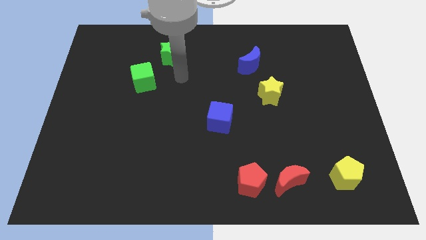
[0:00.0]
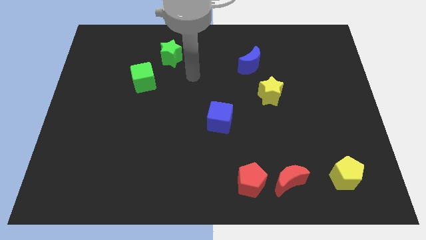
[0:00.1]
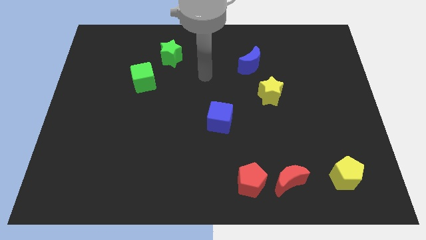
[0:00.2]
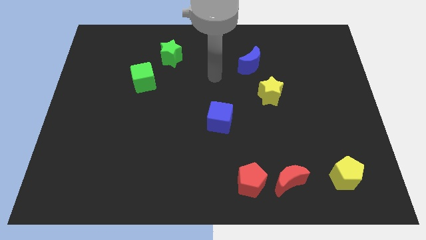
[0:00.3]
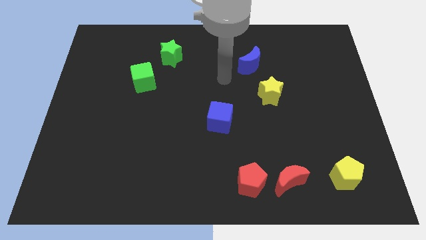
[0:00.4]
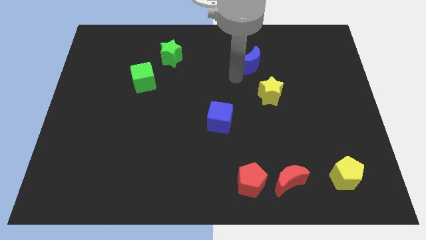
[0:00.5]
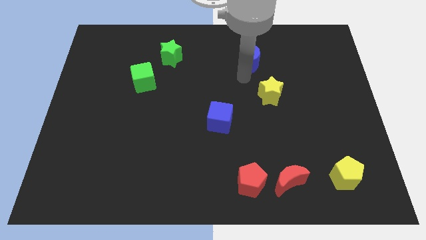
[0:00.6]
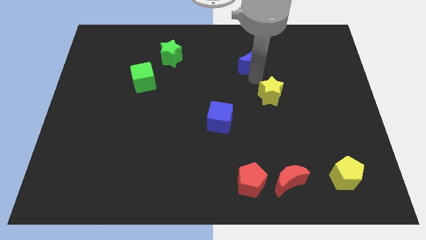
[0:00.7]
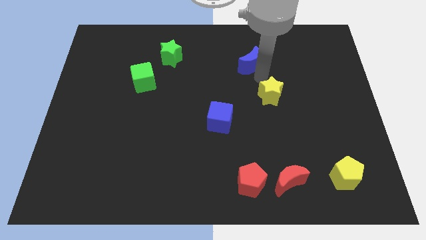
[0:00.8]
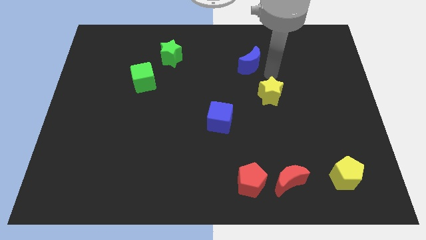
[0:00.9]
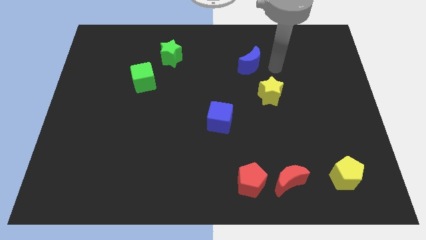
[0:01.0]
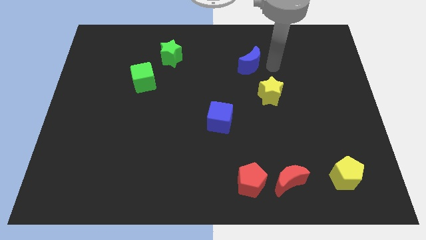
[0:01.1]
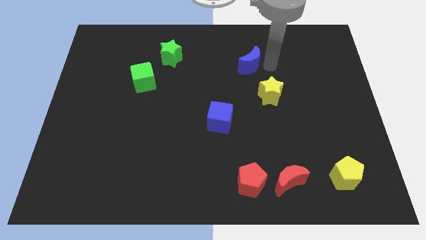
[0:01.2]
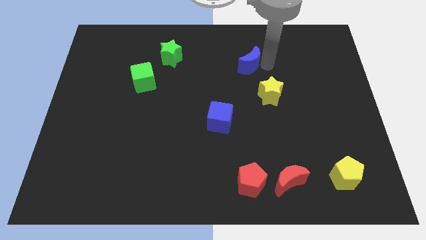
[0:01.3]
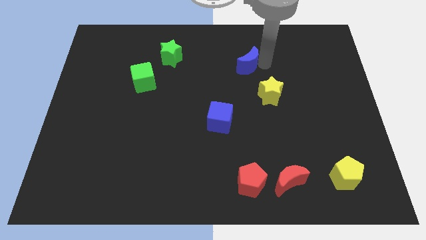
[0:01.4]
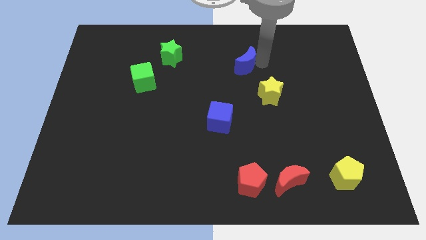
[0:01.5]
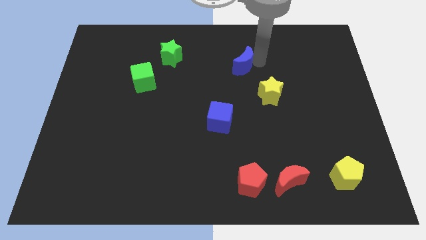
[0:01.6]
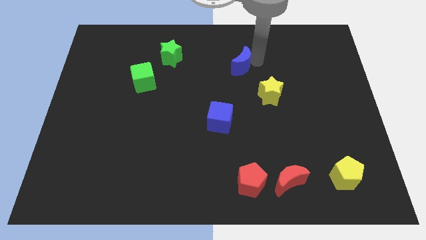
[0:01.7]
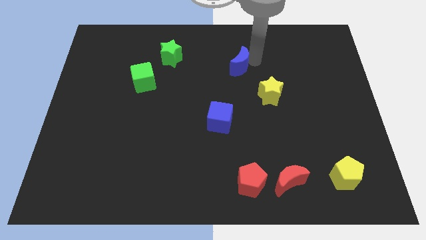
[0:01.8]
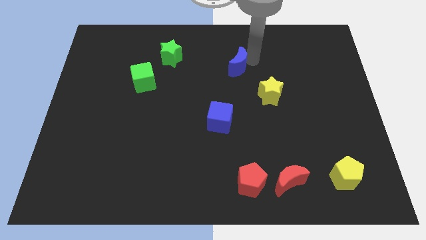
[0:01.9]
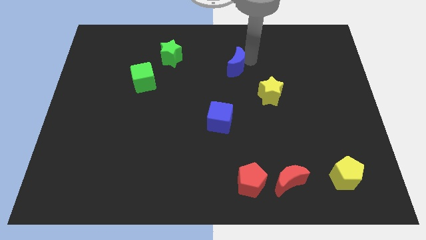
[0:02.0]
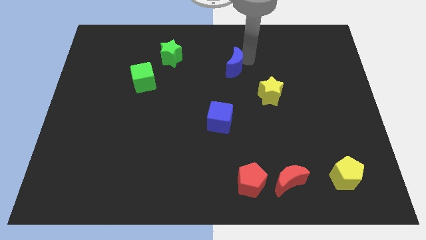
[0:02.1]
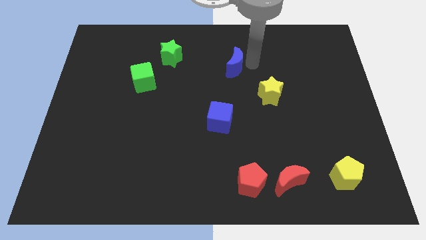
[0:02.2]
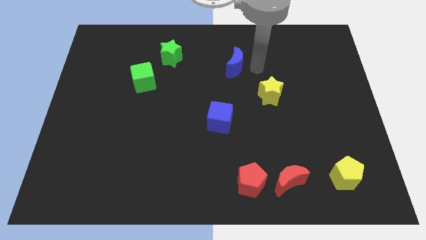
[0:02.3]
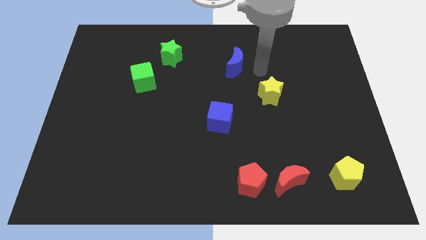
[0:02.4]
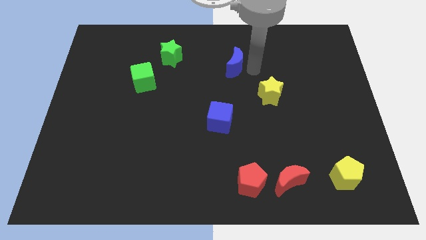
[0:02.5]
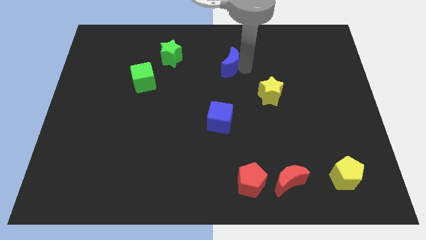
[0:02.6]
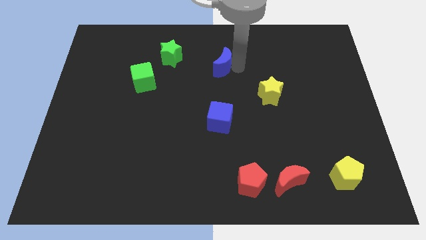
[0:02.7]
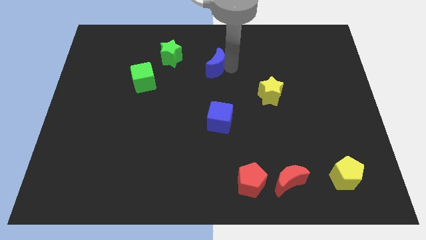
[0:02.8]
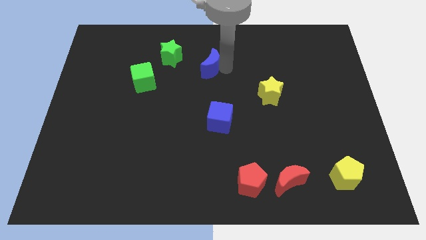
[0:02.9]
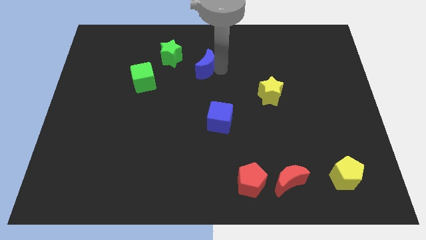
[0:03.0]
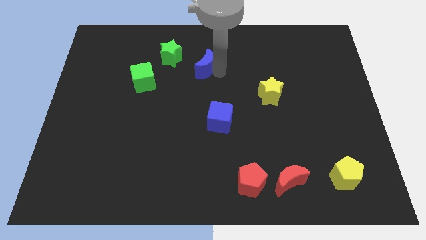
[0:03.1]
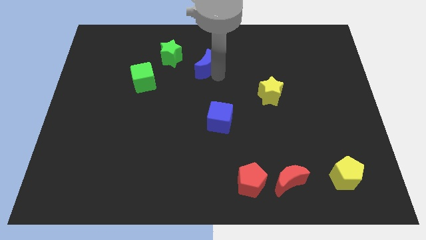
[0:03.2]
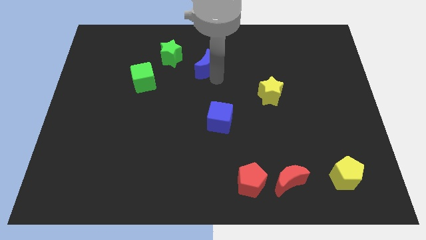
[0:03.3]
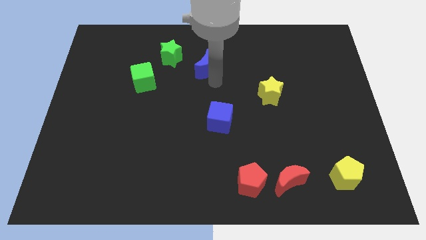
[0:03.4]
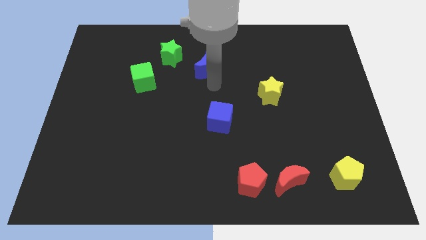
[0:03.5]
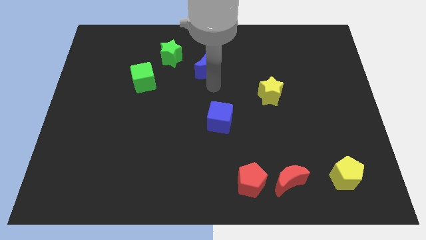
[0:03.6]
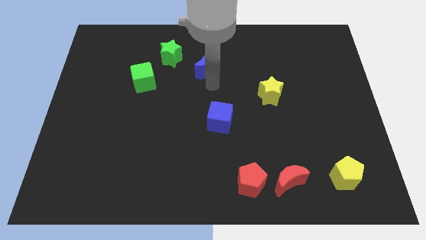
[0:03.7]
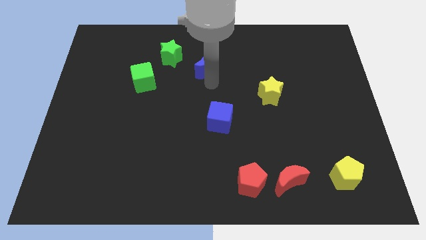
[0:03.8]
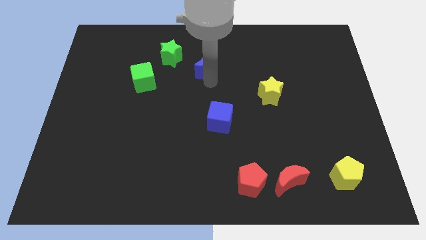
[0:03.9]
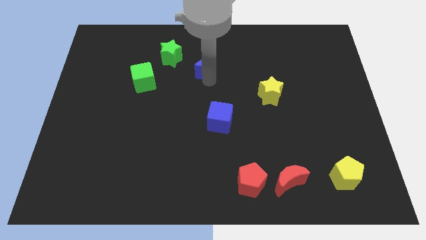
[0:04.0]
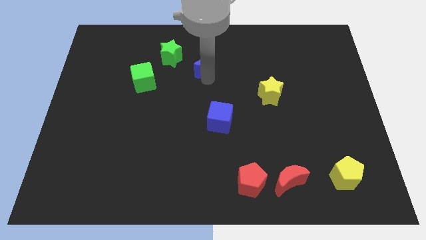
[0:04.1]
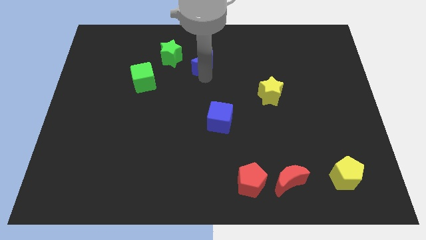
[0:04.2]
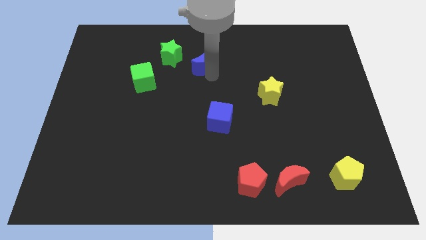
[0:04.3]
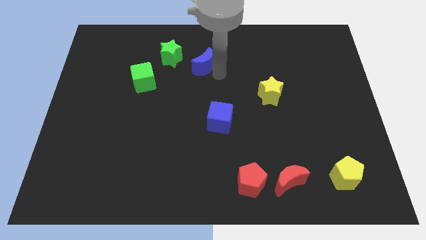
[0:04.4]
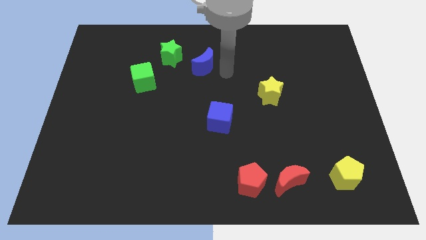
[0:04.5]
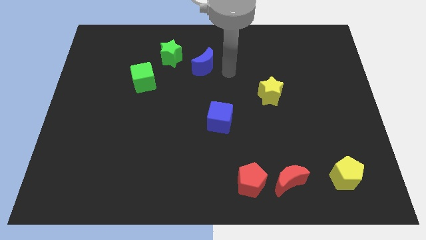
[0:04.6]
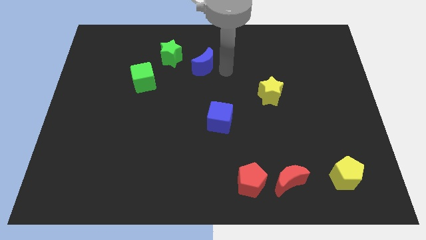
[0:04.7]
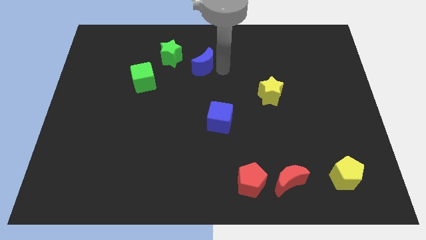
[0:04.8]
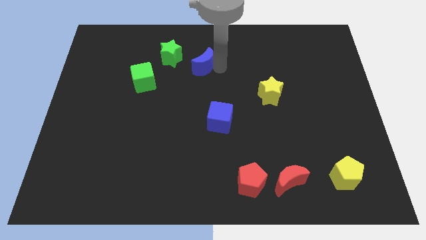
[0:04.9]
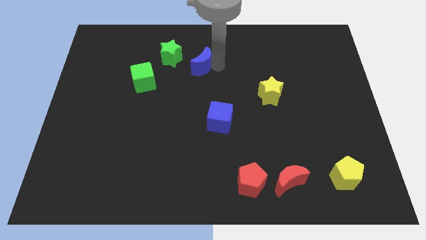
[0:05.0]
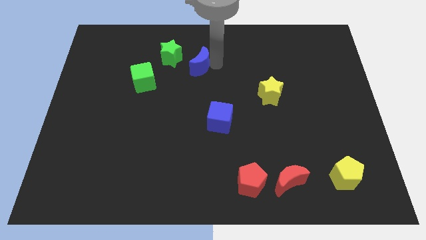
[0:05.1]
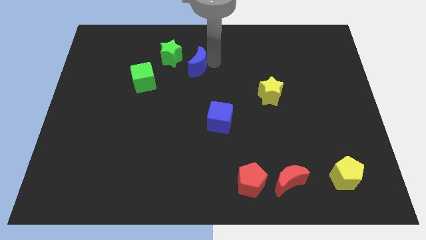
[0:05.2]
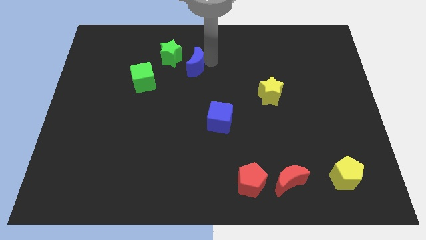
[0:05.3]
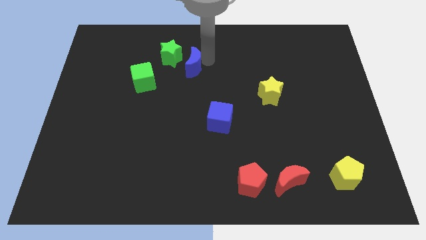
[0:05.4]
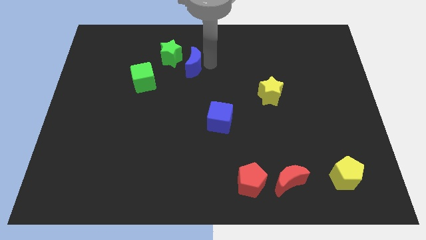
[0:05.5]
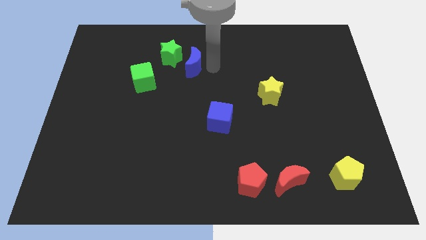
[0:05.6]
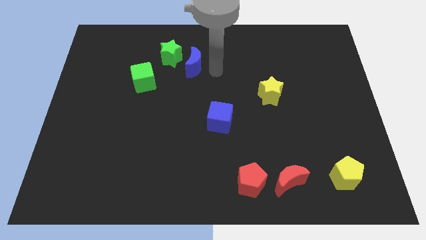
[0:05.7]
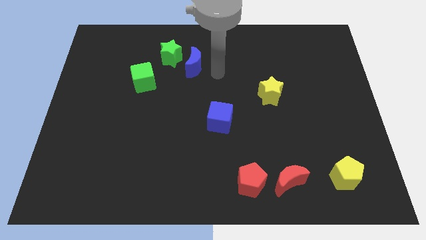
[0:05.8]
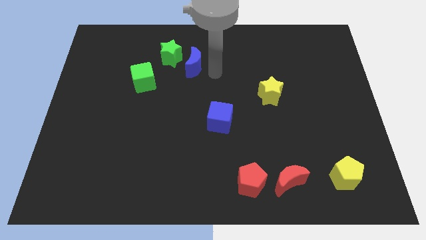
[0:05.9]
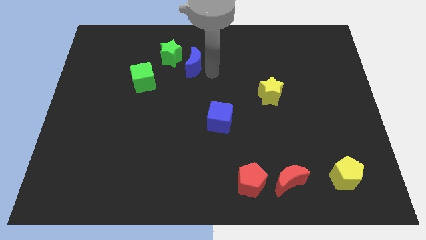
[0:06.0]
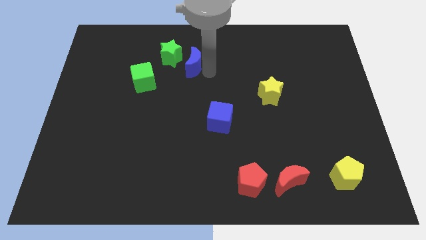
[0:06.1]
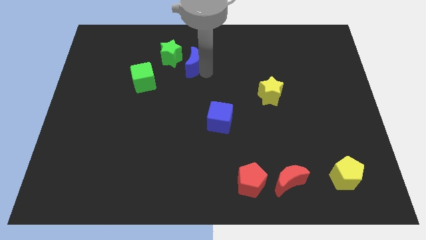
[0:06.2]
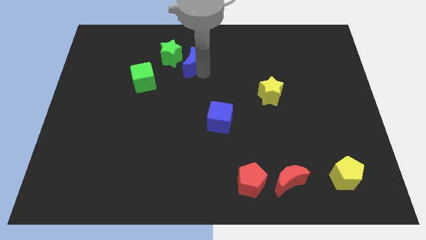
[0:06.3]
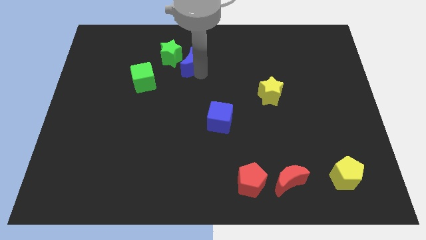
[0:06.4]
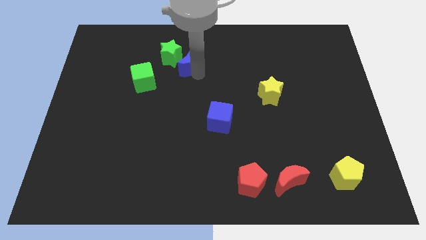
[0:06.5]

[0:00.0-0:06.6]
slide the blue moon next to the green star

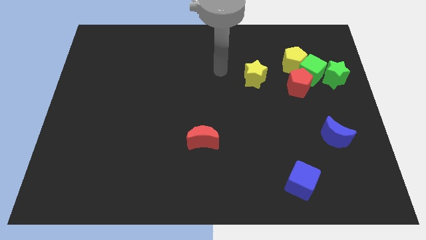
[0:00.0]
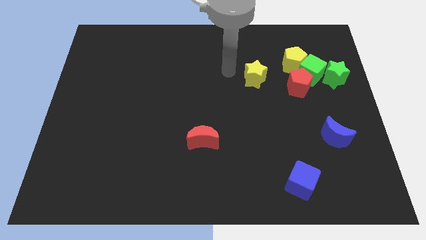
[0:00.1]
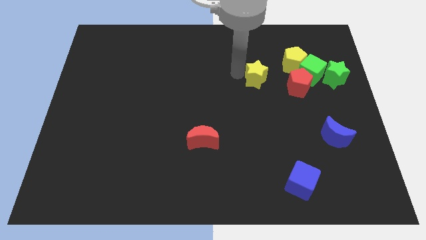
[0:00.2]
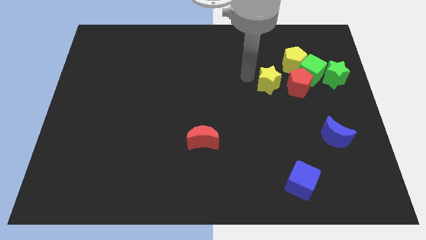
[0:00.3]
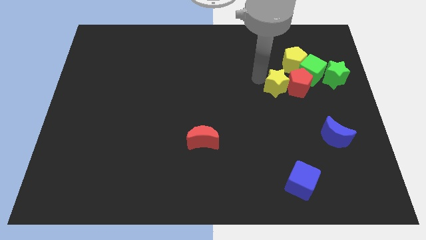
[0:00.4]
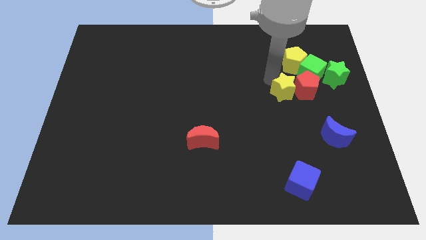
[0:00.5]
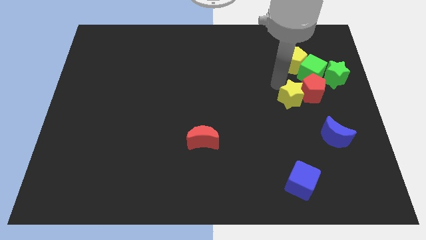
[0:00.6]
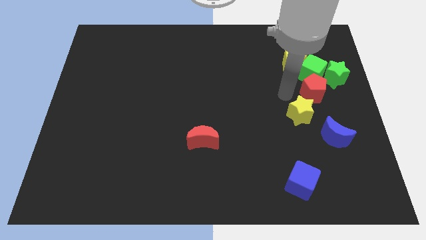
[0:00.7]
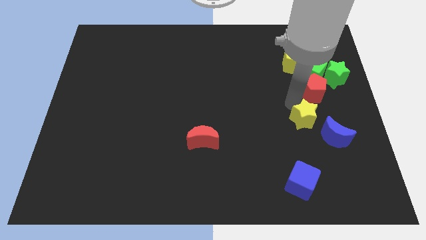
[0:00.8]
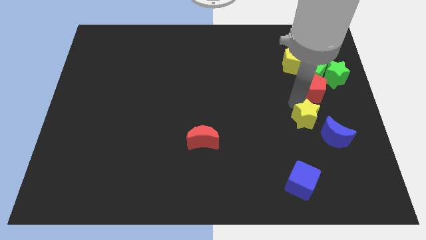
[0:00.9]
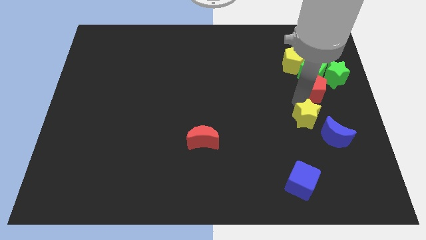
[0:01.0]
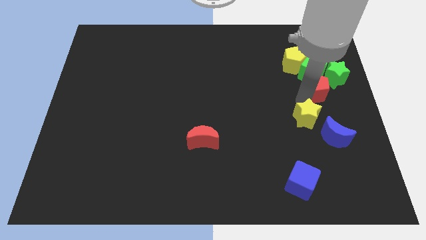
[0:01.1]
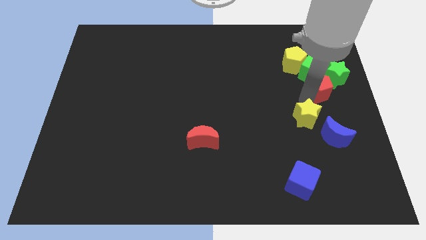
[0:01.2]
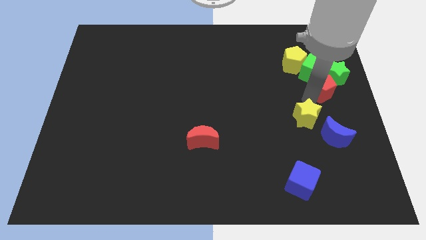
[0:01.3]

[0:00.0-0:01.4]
push the red pentagon next to the green star
